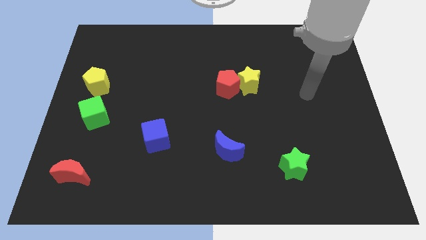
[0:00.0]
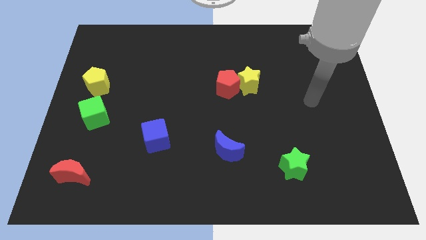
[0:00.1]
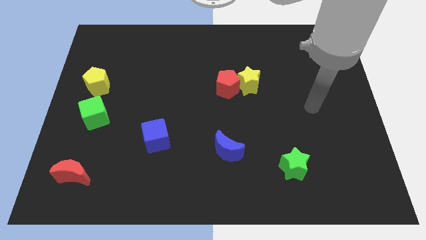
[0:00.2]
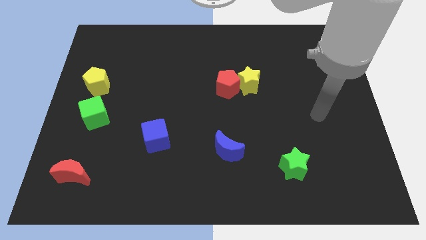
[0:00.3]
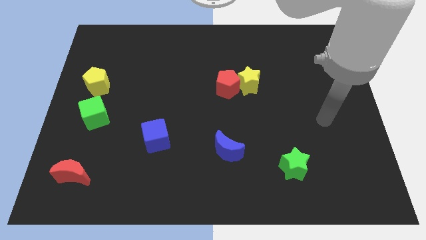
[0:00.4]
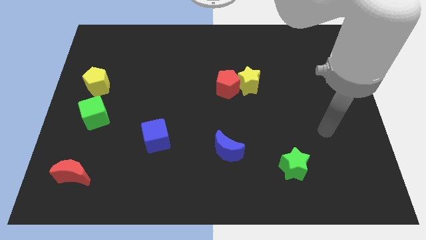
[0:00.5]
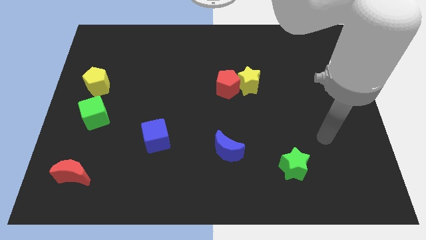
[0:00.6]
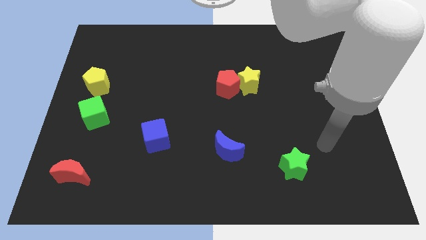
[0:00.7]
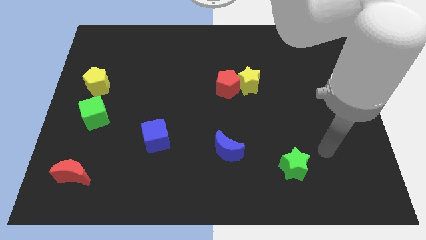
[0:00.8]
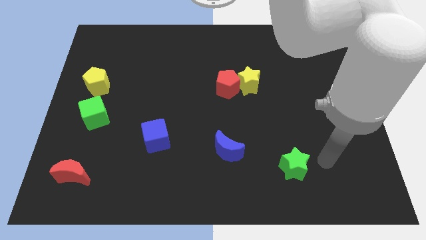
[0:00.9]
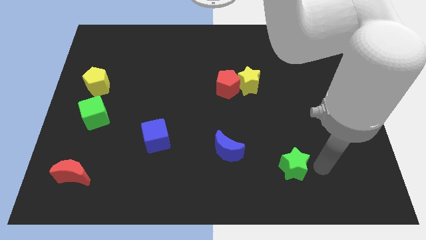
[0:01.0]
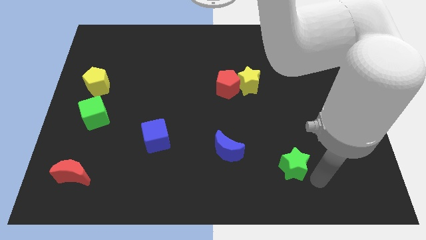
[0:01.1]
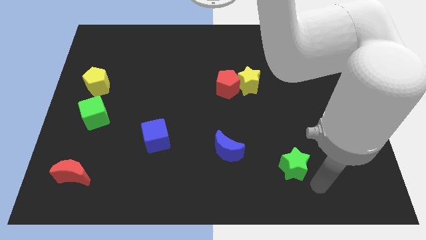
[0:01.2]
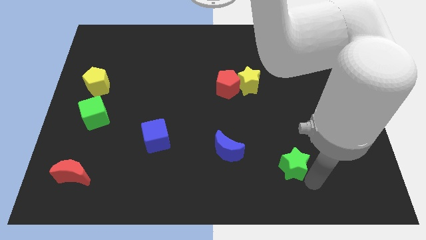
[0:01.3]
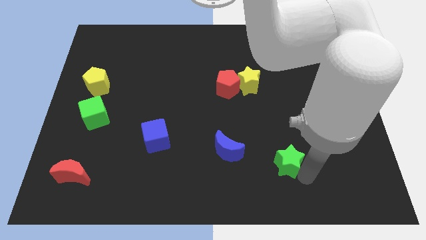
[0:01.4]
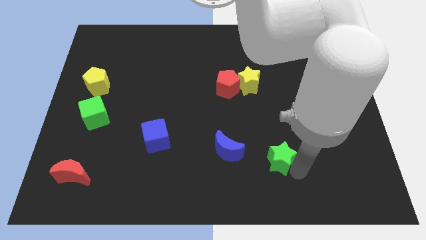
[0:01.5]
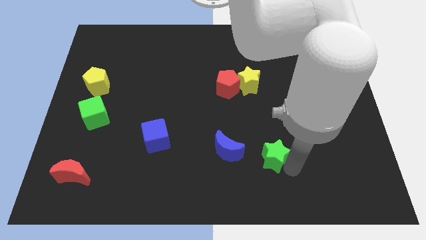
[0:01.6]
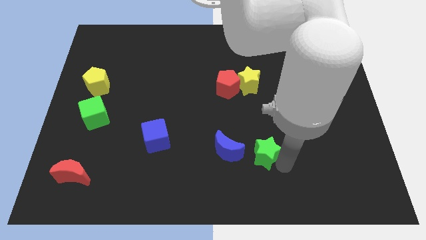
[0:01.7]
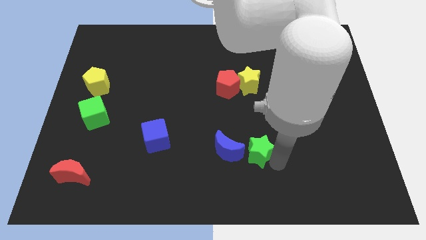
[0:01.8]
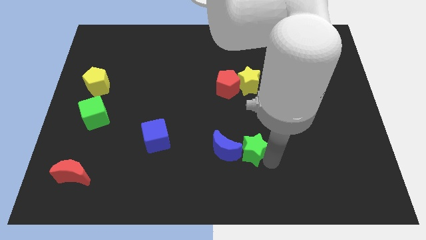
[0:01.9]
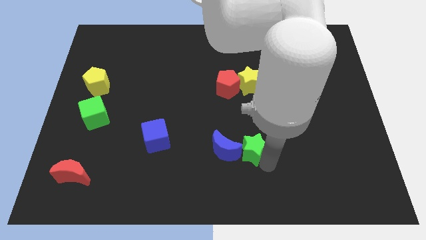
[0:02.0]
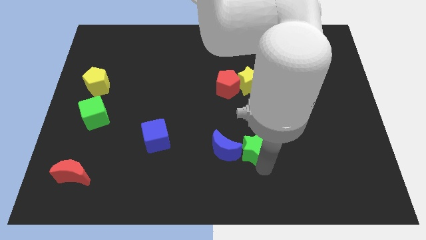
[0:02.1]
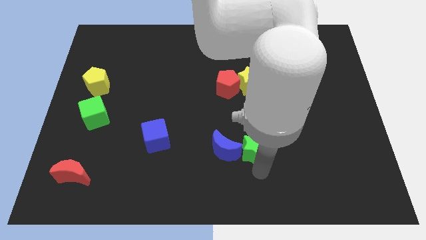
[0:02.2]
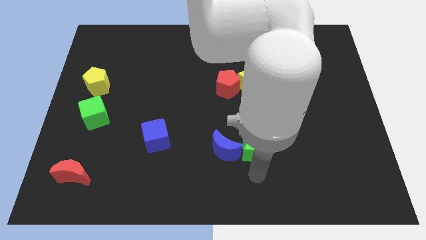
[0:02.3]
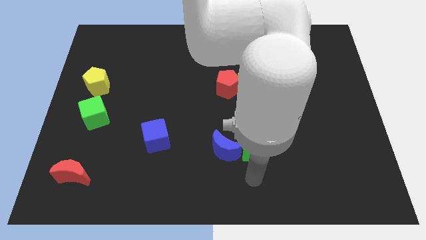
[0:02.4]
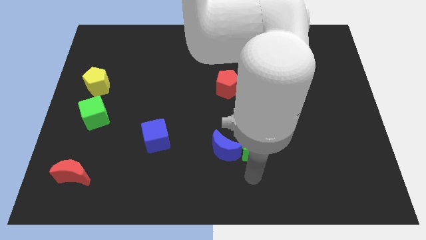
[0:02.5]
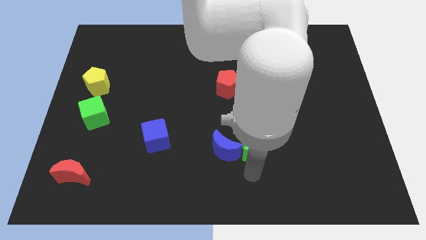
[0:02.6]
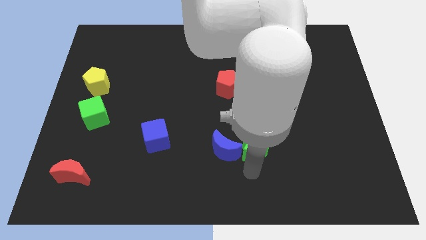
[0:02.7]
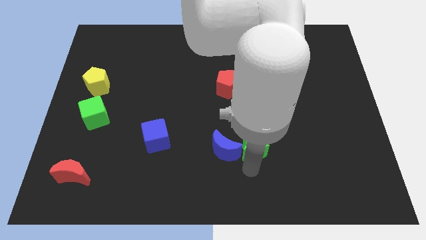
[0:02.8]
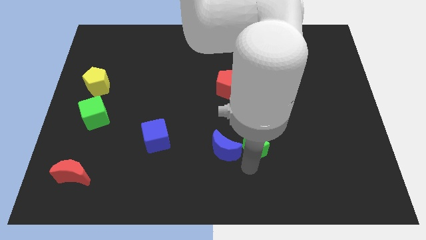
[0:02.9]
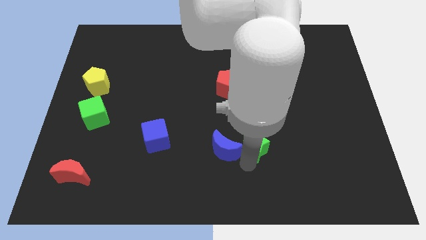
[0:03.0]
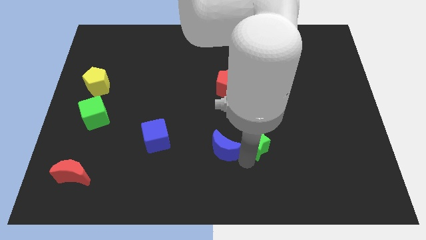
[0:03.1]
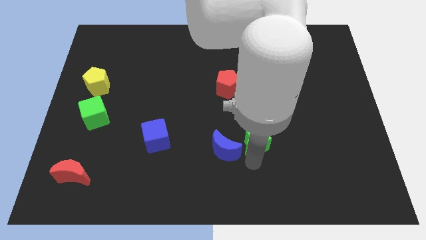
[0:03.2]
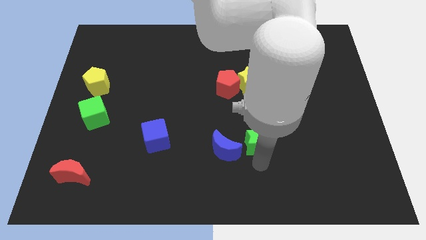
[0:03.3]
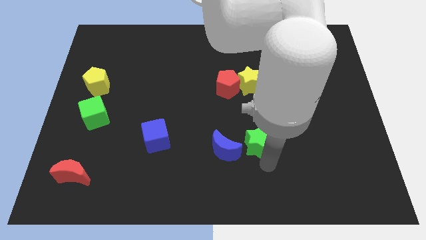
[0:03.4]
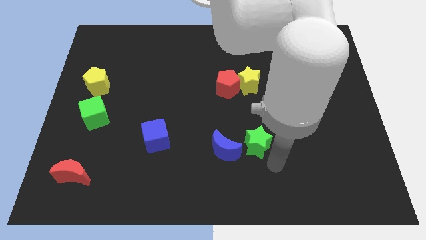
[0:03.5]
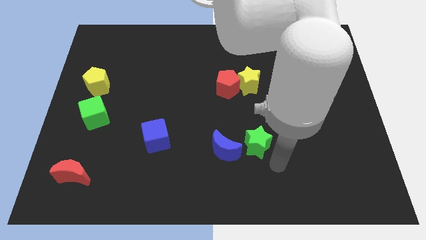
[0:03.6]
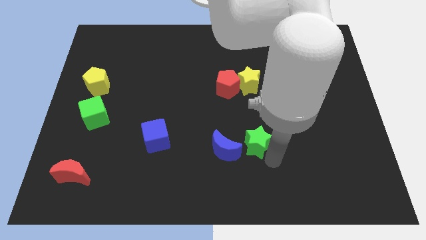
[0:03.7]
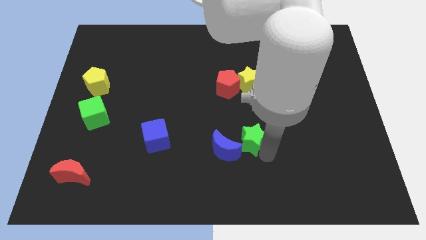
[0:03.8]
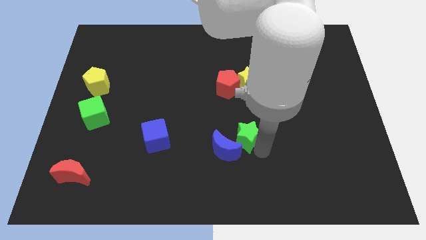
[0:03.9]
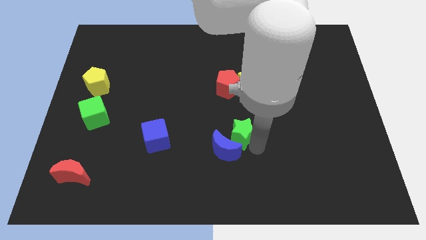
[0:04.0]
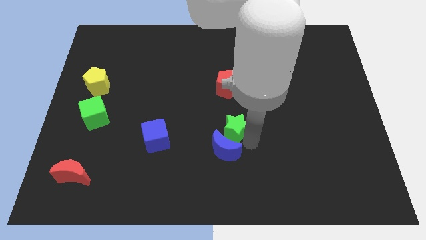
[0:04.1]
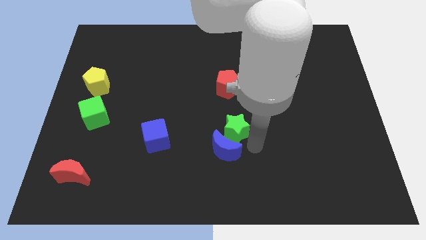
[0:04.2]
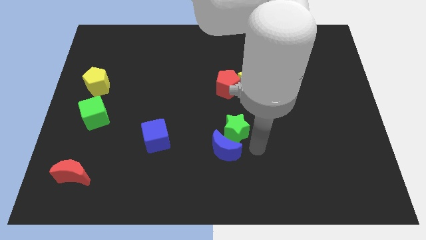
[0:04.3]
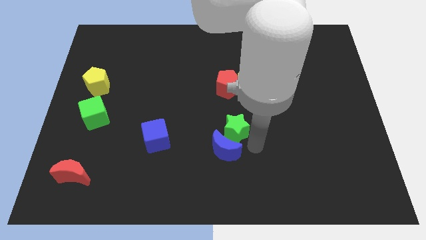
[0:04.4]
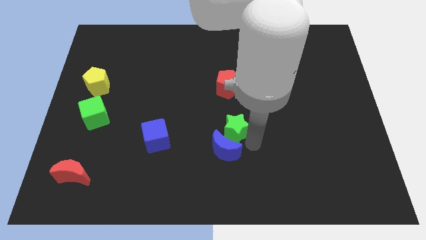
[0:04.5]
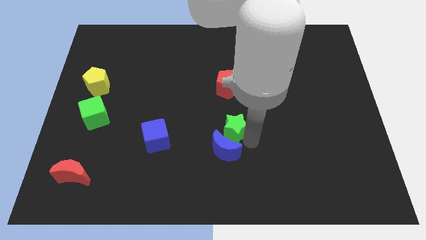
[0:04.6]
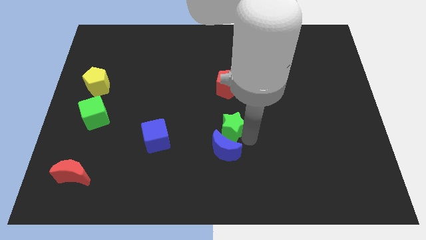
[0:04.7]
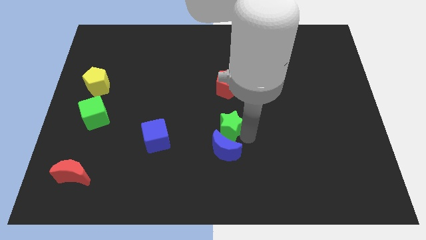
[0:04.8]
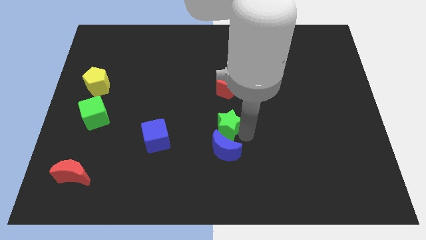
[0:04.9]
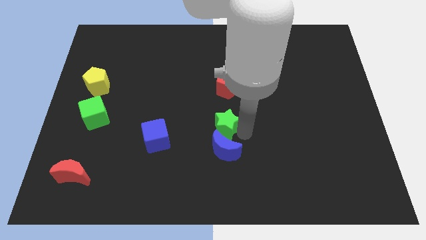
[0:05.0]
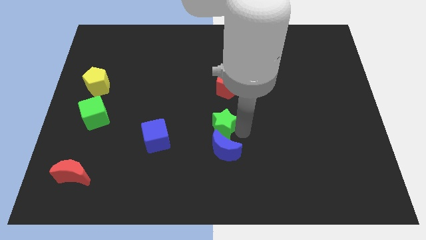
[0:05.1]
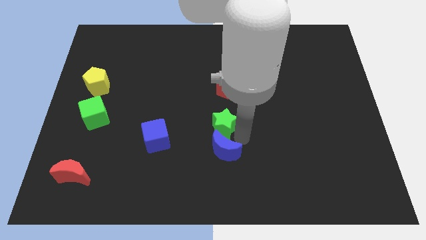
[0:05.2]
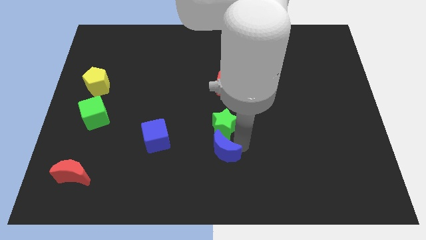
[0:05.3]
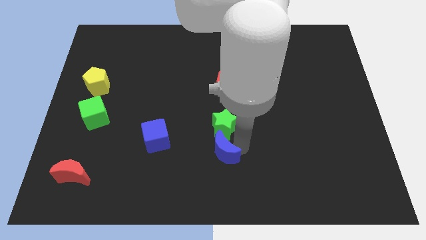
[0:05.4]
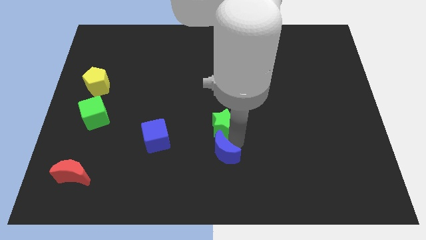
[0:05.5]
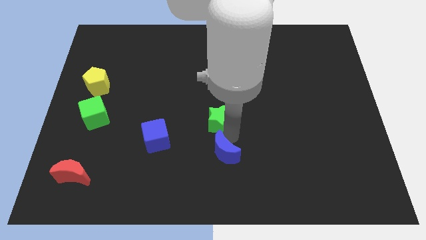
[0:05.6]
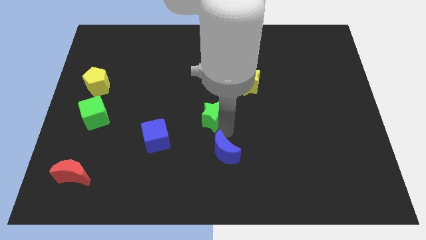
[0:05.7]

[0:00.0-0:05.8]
slide the green star diagonally up and to the left

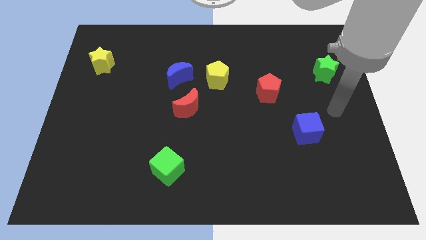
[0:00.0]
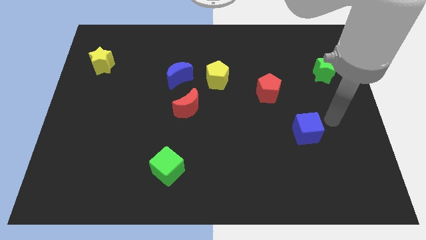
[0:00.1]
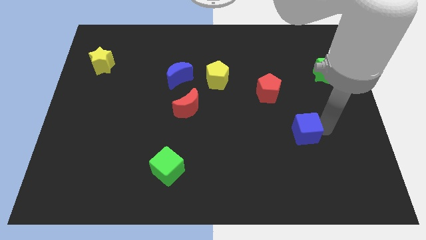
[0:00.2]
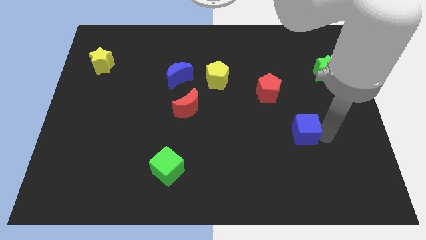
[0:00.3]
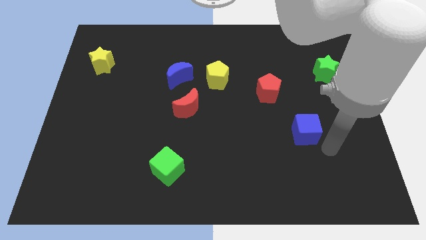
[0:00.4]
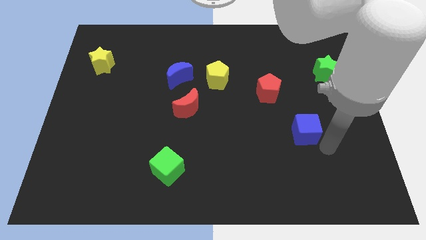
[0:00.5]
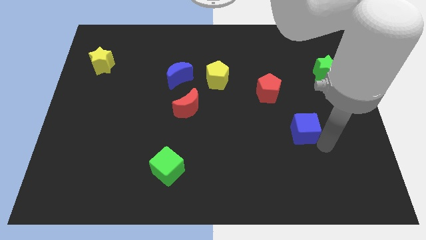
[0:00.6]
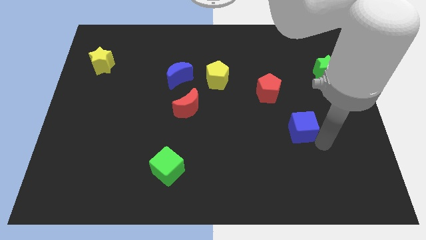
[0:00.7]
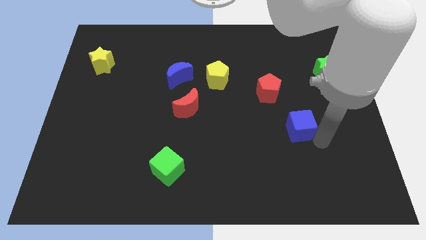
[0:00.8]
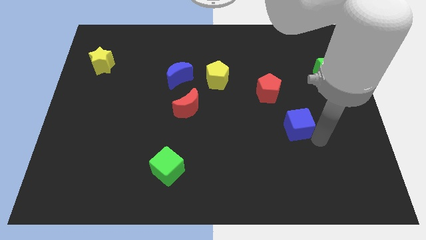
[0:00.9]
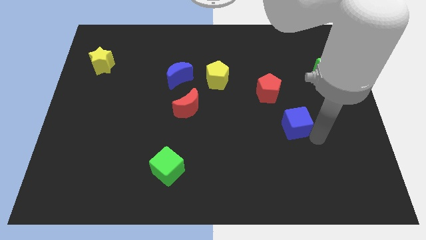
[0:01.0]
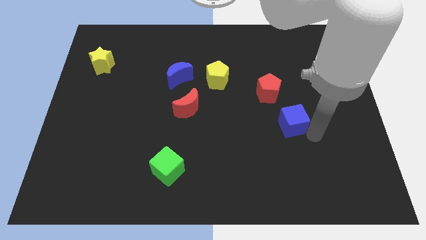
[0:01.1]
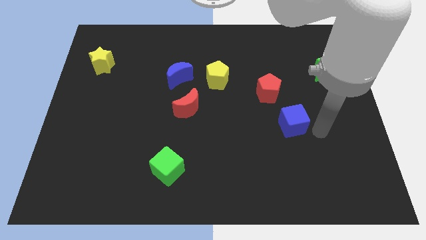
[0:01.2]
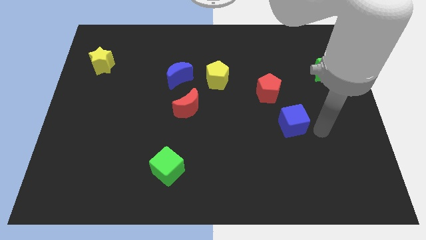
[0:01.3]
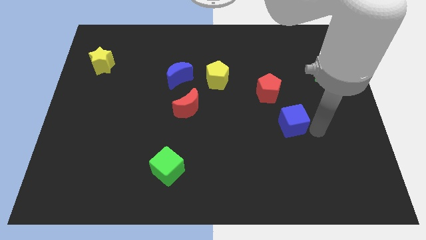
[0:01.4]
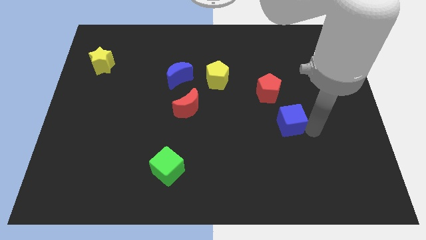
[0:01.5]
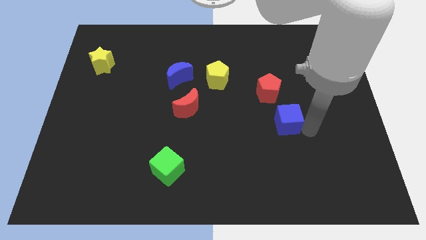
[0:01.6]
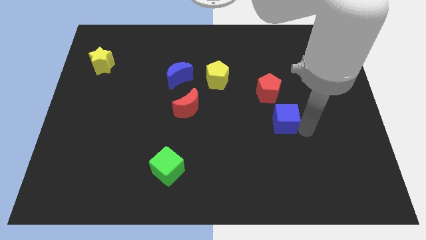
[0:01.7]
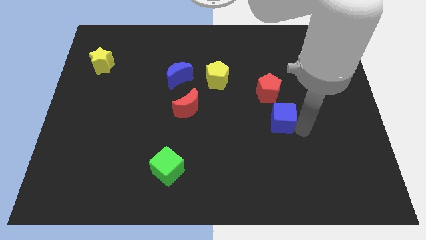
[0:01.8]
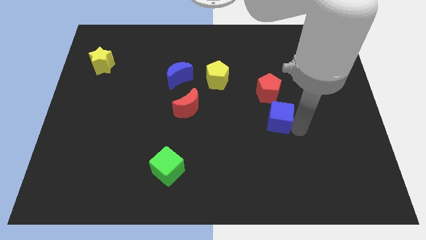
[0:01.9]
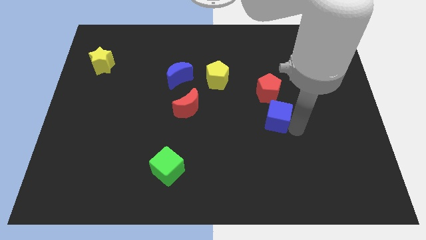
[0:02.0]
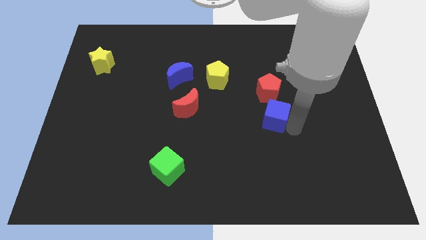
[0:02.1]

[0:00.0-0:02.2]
slide the blue cube a little diagonally upwards and left
